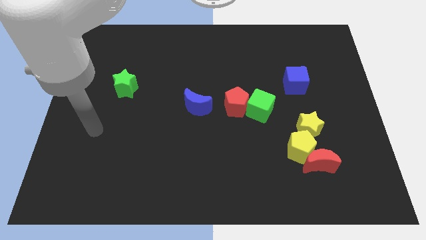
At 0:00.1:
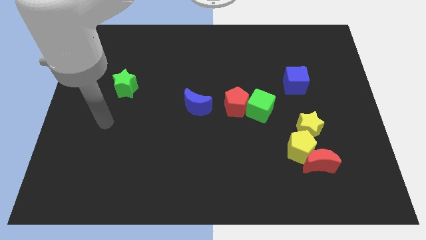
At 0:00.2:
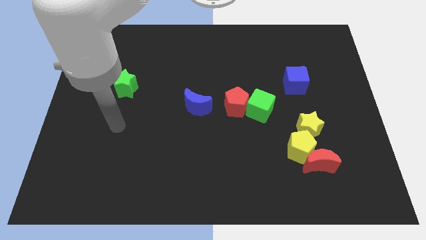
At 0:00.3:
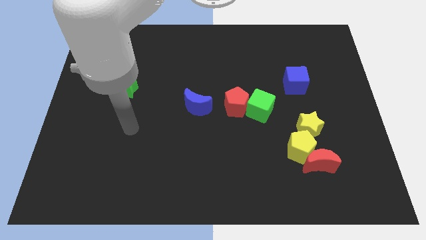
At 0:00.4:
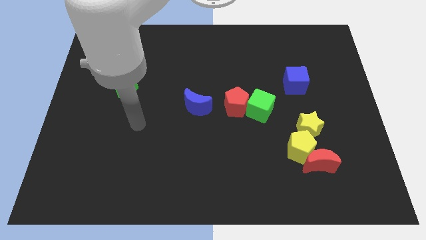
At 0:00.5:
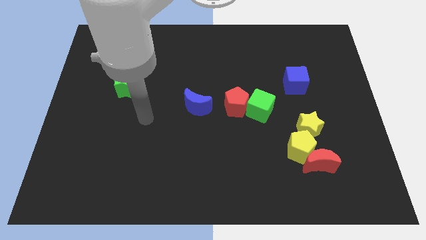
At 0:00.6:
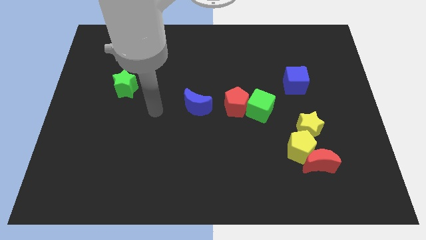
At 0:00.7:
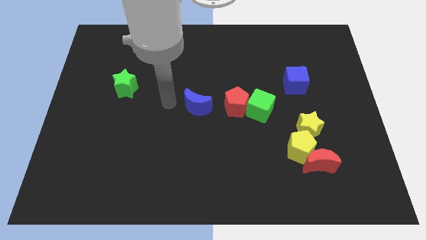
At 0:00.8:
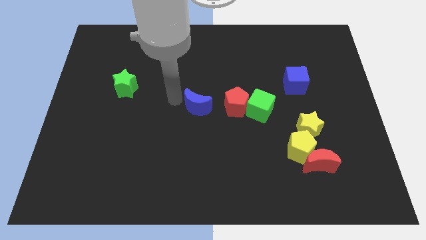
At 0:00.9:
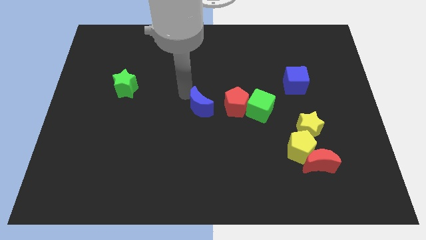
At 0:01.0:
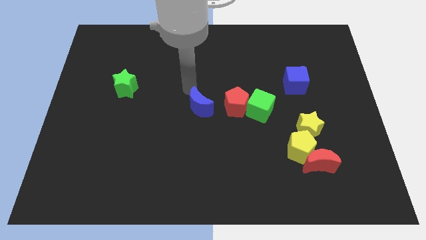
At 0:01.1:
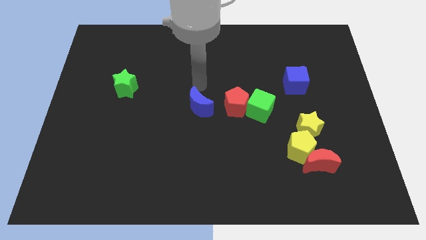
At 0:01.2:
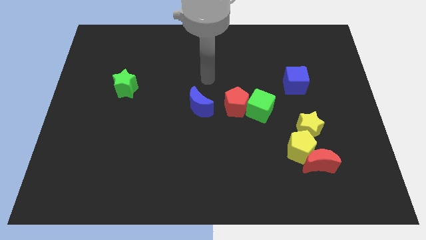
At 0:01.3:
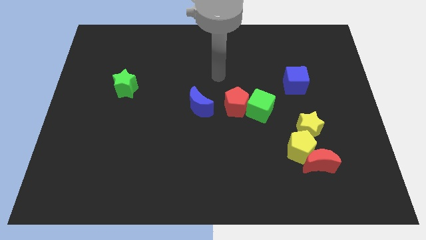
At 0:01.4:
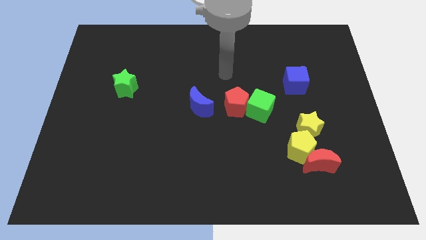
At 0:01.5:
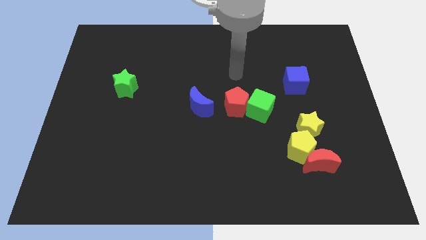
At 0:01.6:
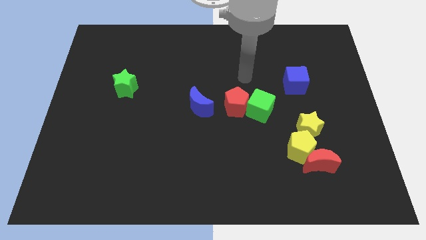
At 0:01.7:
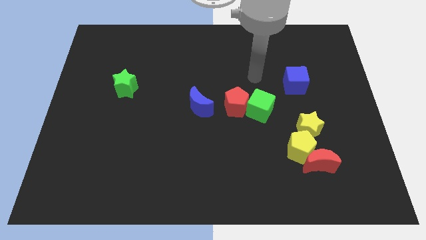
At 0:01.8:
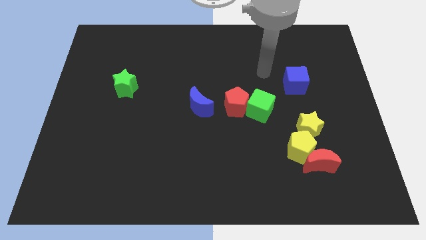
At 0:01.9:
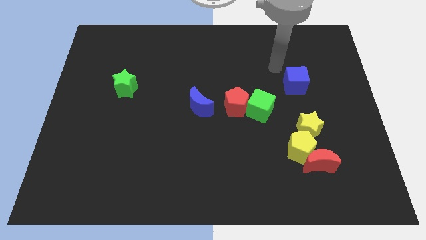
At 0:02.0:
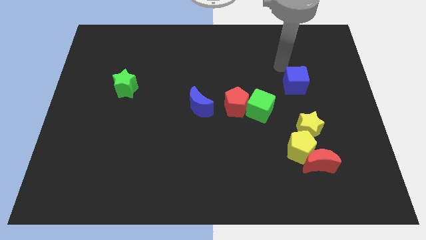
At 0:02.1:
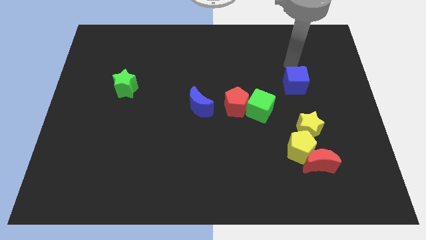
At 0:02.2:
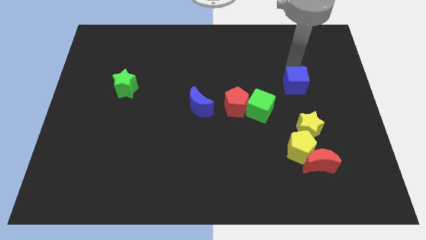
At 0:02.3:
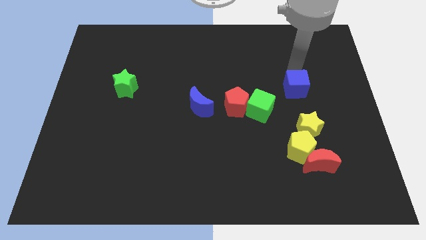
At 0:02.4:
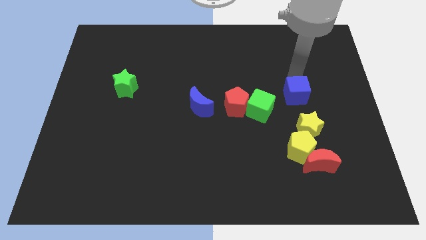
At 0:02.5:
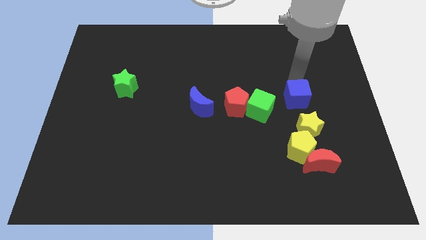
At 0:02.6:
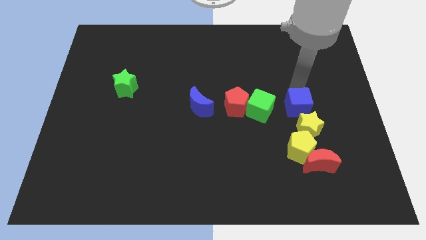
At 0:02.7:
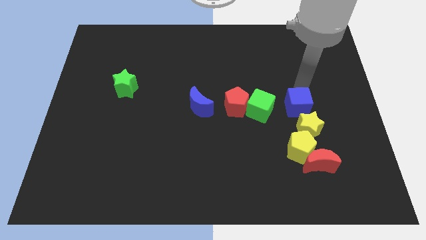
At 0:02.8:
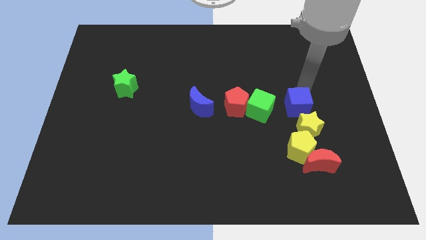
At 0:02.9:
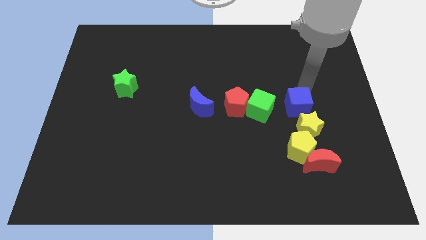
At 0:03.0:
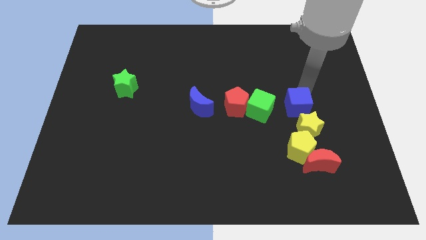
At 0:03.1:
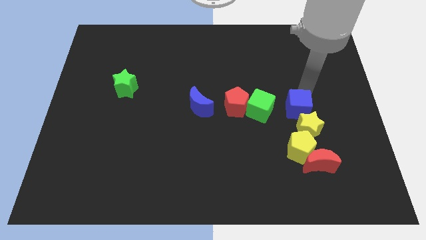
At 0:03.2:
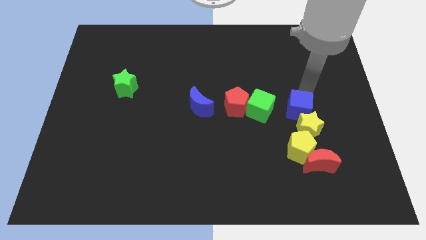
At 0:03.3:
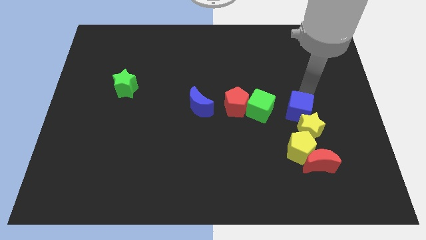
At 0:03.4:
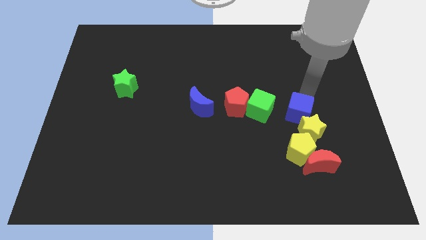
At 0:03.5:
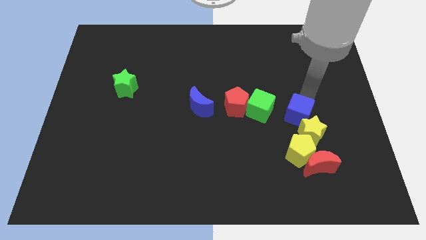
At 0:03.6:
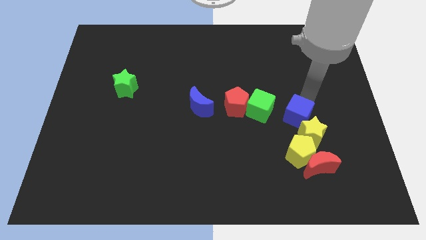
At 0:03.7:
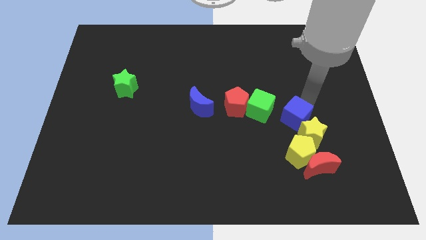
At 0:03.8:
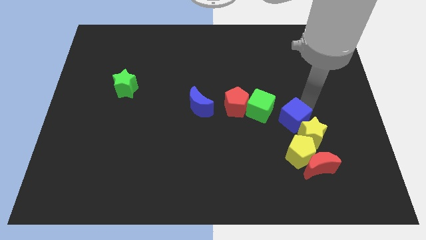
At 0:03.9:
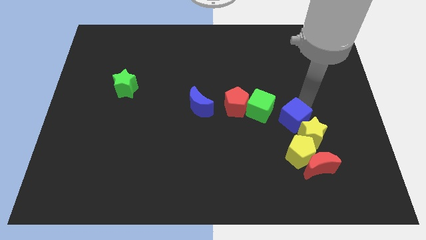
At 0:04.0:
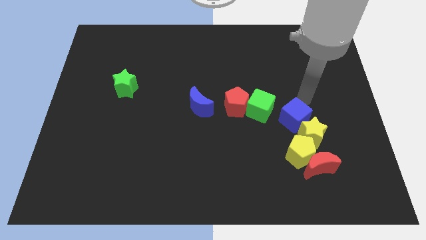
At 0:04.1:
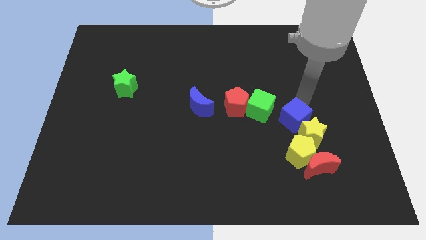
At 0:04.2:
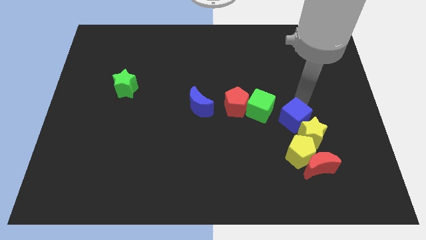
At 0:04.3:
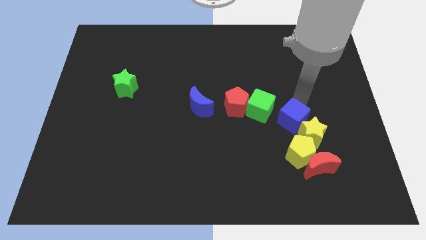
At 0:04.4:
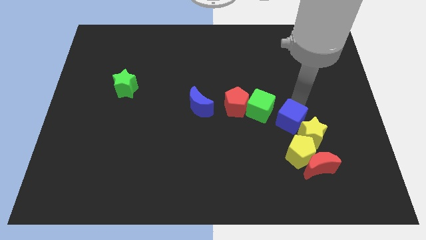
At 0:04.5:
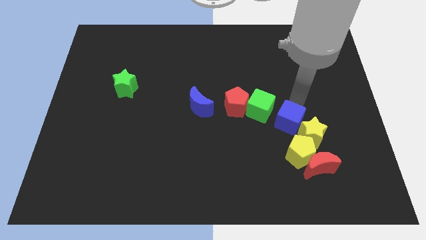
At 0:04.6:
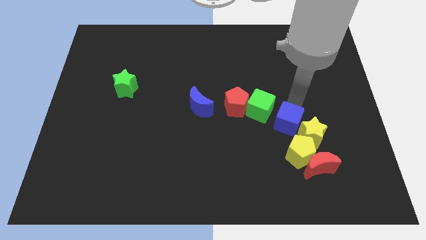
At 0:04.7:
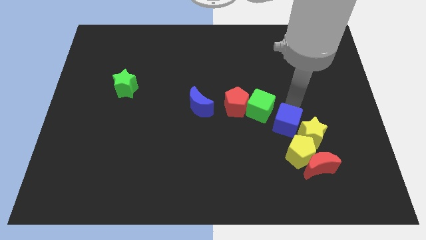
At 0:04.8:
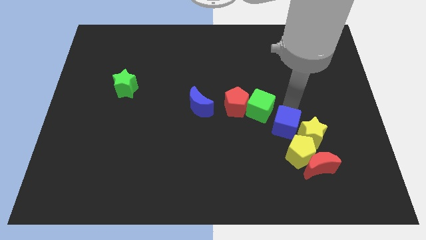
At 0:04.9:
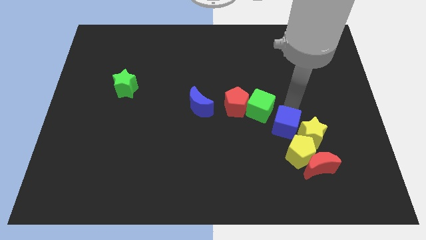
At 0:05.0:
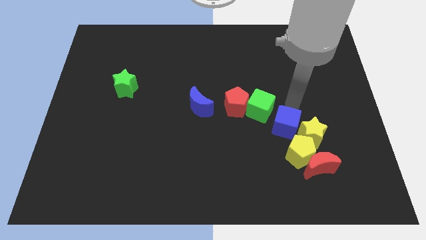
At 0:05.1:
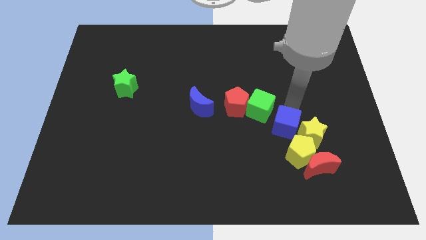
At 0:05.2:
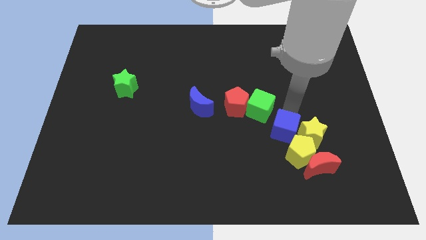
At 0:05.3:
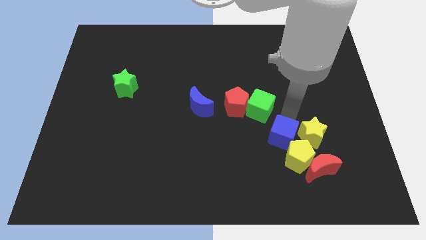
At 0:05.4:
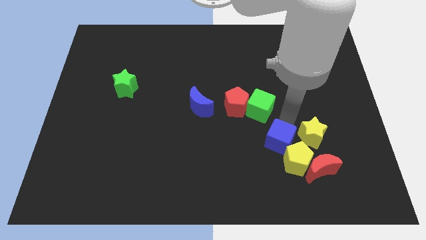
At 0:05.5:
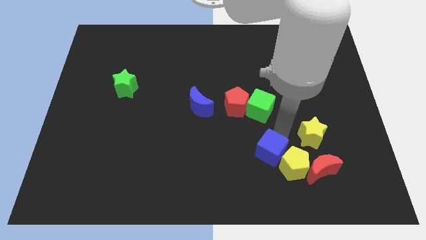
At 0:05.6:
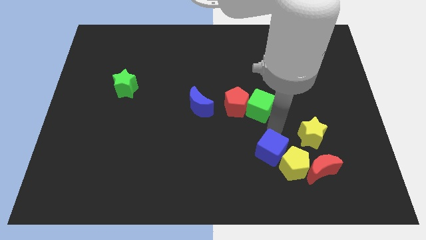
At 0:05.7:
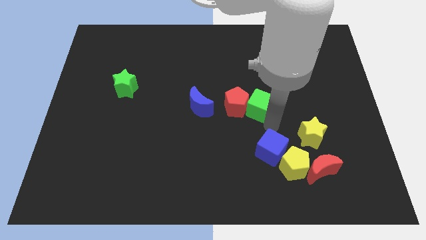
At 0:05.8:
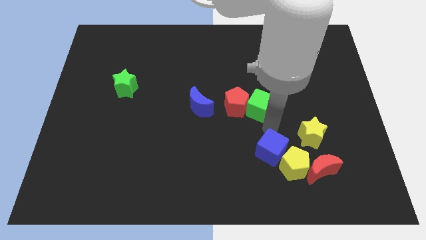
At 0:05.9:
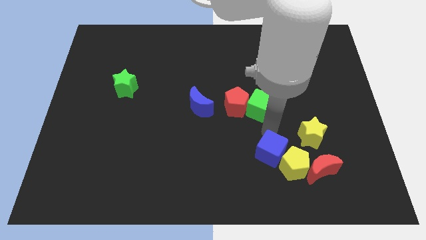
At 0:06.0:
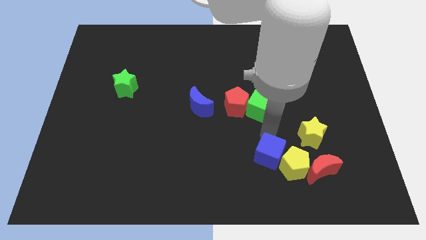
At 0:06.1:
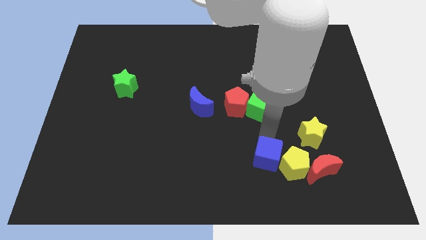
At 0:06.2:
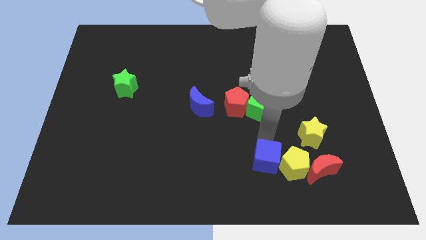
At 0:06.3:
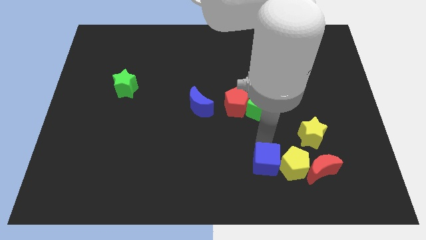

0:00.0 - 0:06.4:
slide the blue cube to the bottom left side of the yellow pentagon

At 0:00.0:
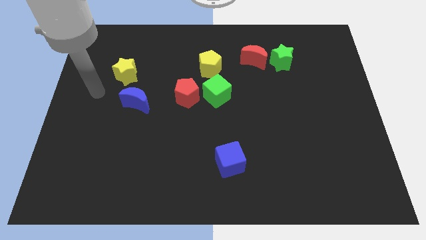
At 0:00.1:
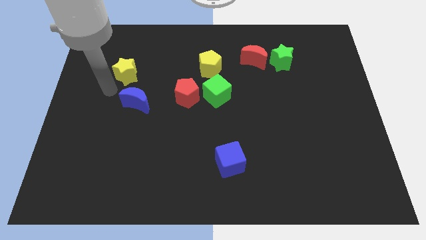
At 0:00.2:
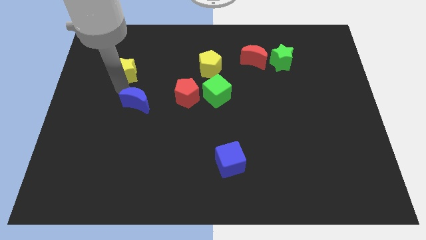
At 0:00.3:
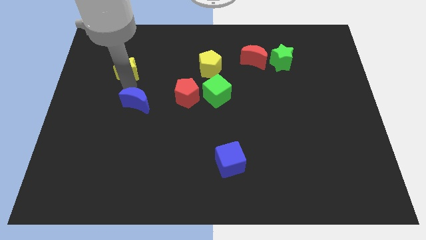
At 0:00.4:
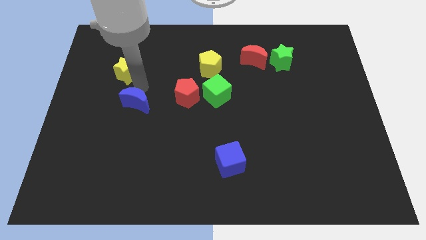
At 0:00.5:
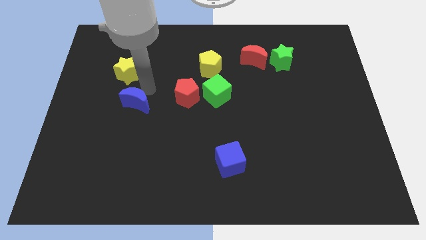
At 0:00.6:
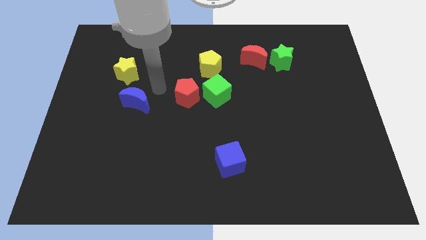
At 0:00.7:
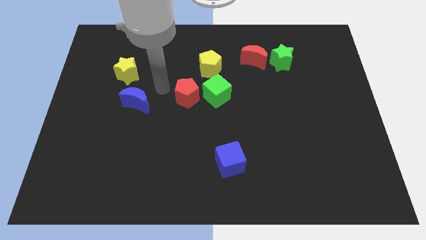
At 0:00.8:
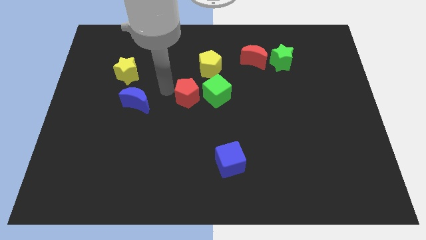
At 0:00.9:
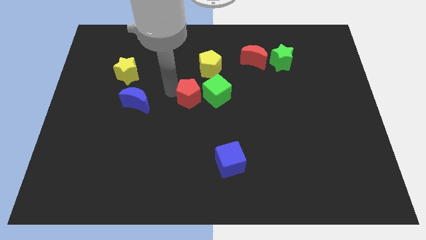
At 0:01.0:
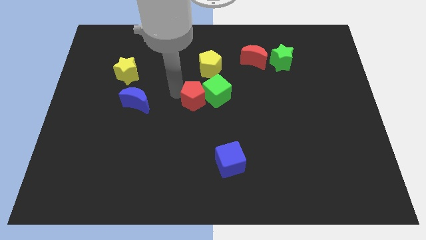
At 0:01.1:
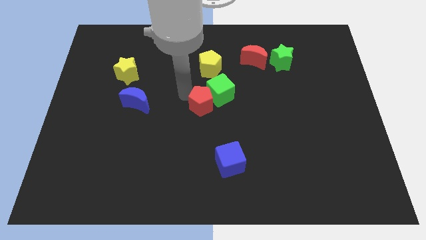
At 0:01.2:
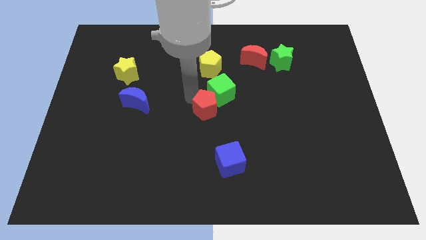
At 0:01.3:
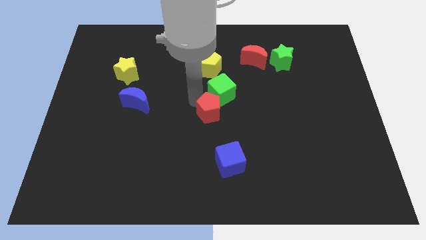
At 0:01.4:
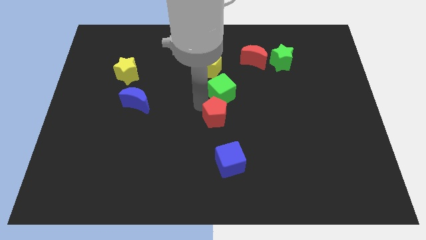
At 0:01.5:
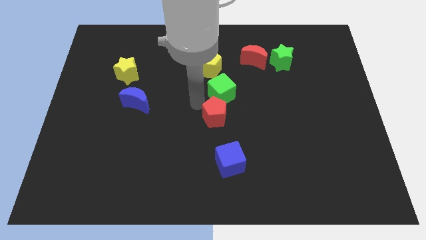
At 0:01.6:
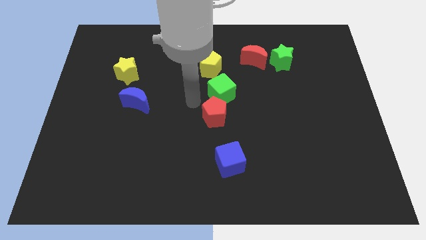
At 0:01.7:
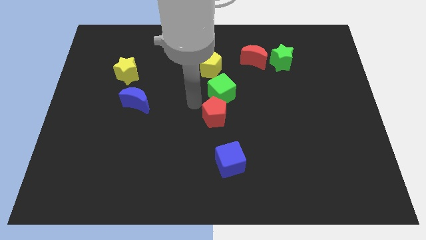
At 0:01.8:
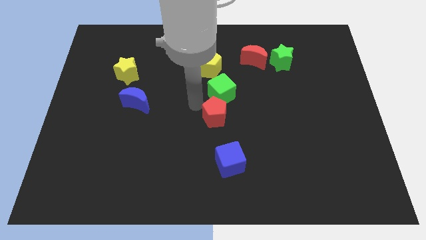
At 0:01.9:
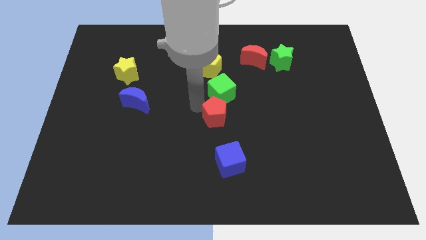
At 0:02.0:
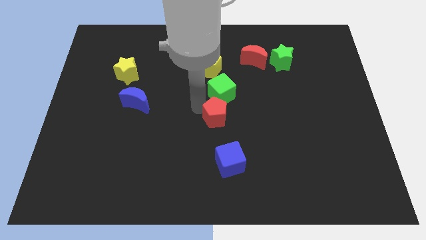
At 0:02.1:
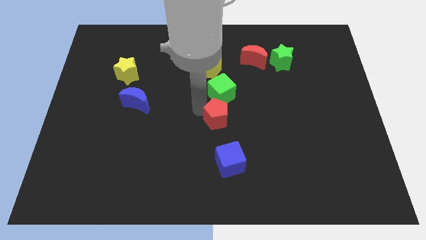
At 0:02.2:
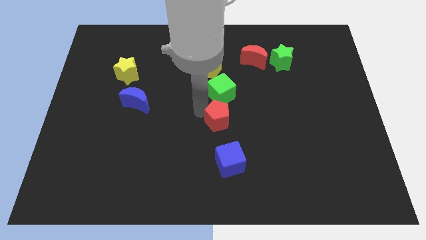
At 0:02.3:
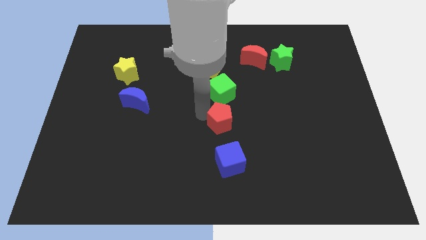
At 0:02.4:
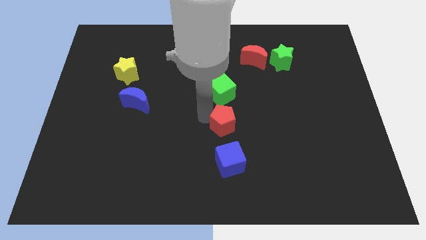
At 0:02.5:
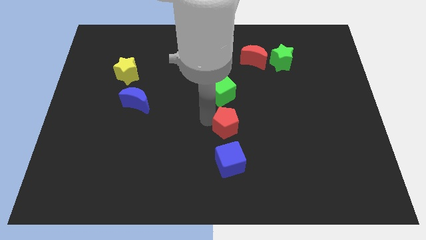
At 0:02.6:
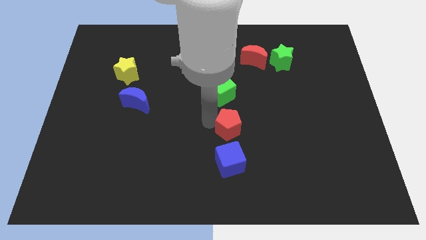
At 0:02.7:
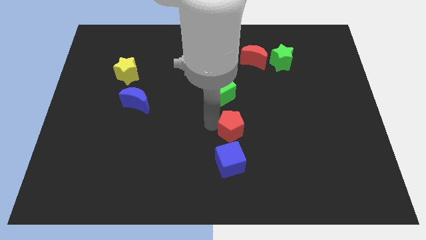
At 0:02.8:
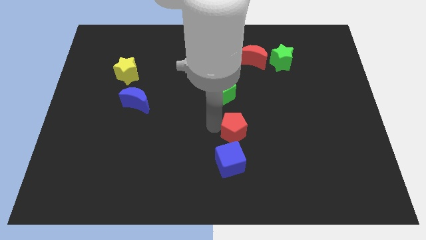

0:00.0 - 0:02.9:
put the red pentagon to the top right of the blue cube
